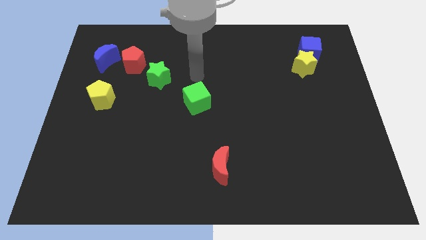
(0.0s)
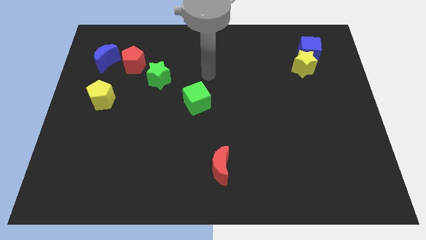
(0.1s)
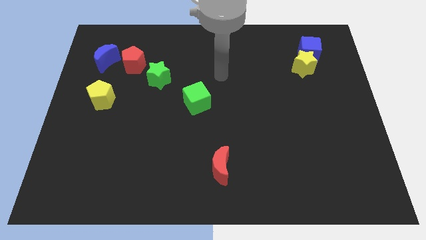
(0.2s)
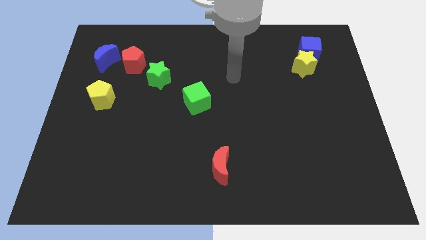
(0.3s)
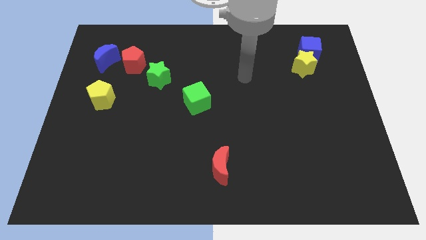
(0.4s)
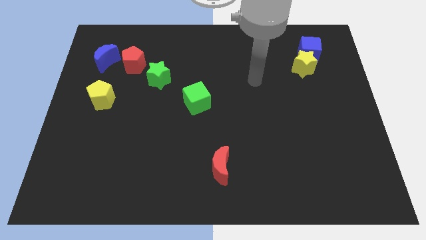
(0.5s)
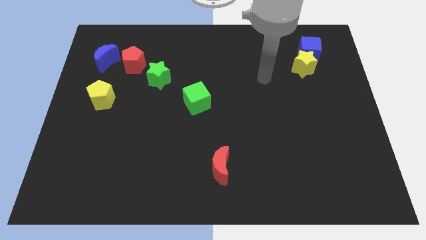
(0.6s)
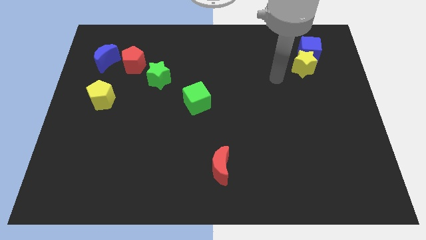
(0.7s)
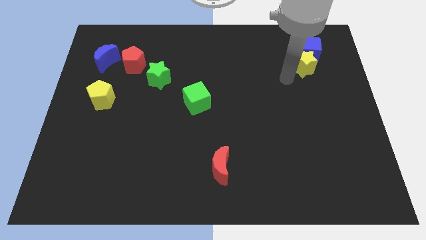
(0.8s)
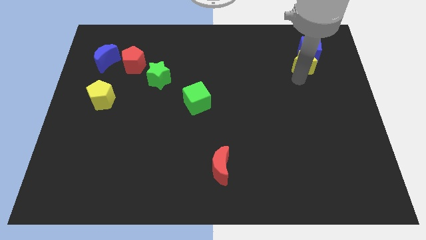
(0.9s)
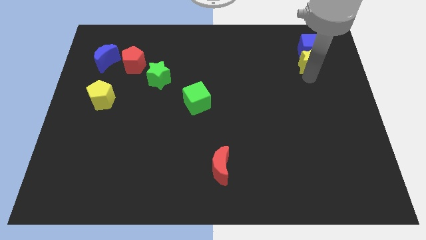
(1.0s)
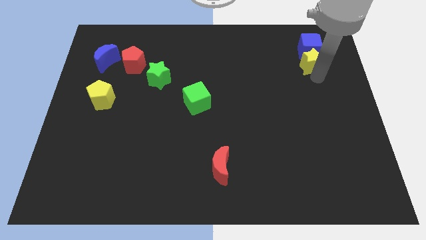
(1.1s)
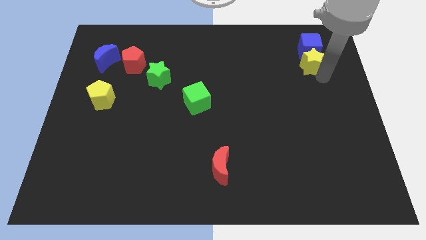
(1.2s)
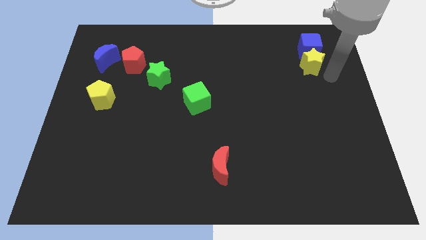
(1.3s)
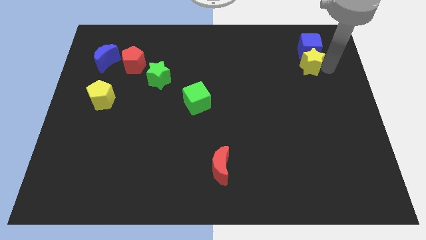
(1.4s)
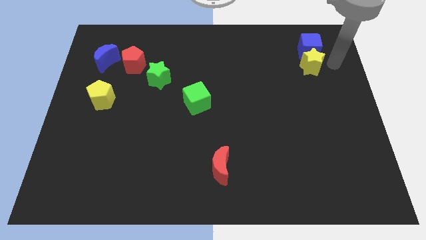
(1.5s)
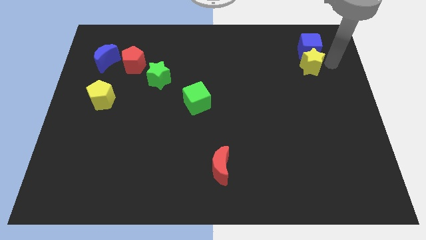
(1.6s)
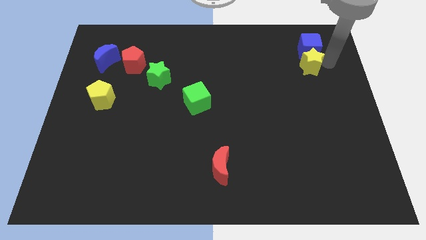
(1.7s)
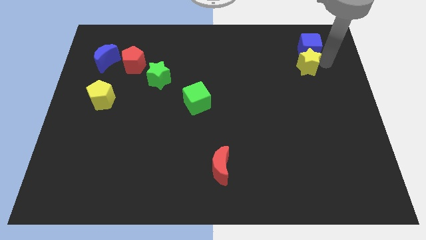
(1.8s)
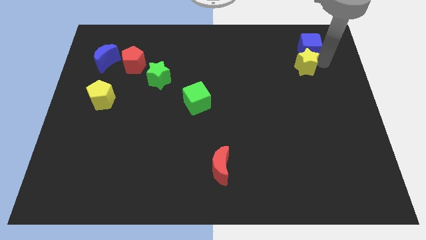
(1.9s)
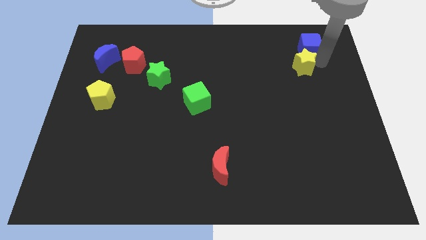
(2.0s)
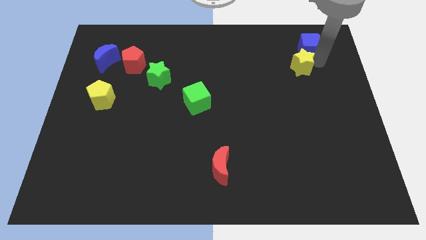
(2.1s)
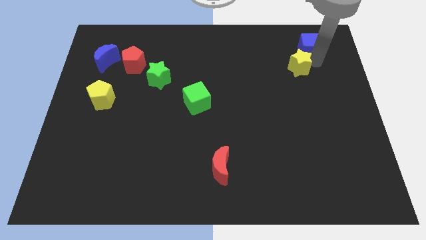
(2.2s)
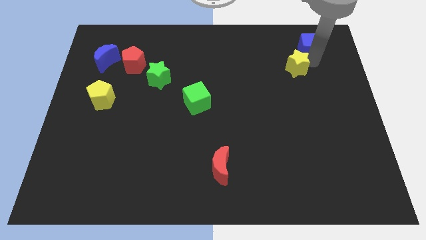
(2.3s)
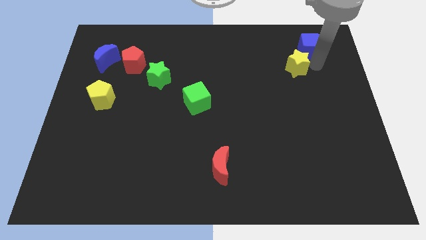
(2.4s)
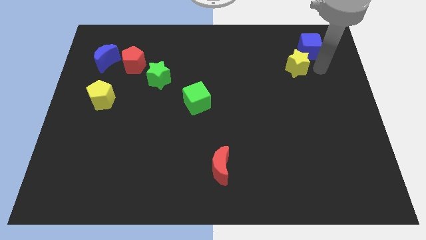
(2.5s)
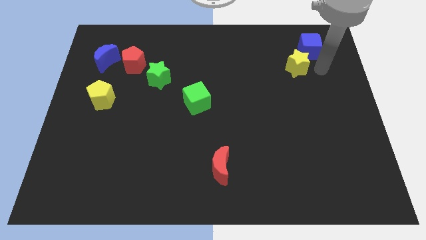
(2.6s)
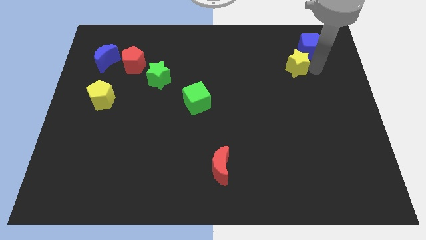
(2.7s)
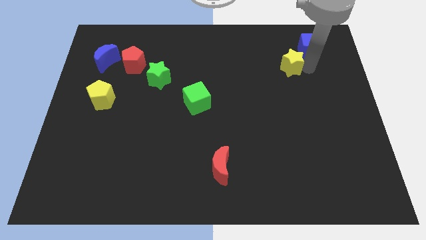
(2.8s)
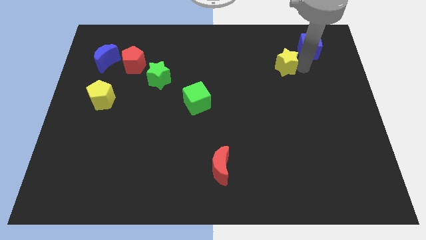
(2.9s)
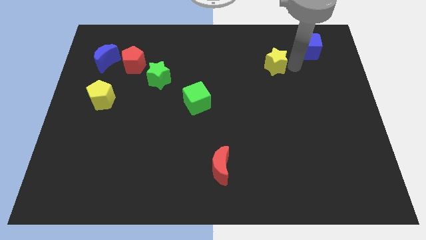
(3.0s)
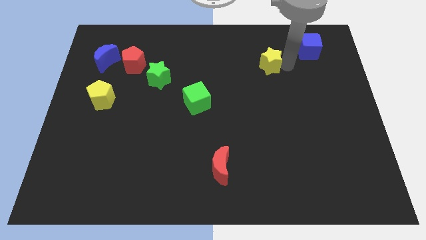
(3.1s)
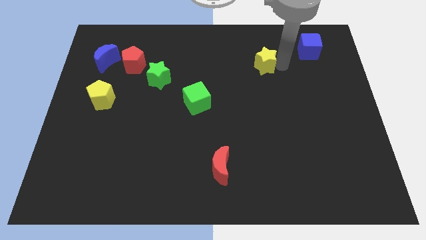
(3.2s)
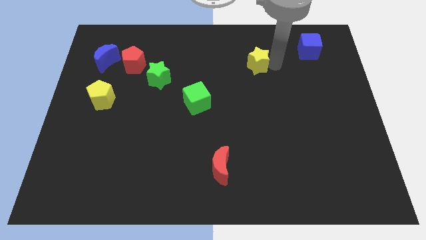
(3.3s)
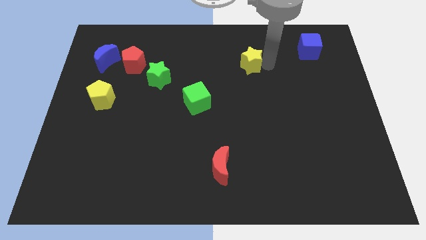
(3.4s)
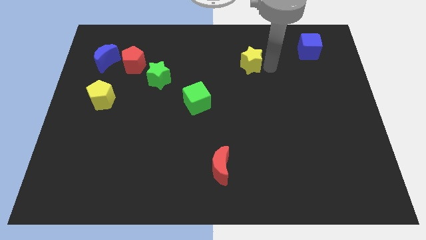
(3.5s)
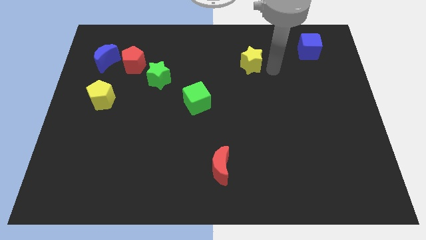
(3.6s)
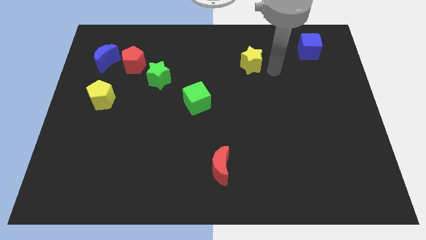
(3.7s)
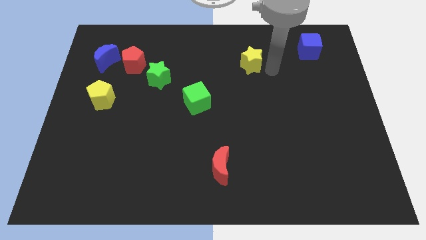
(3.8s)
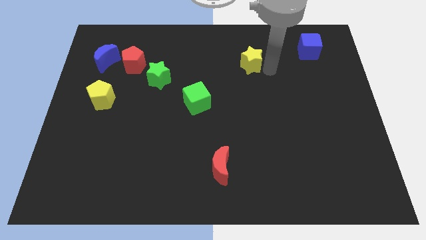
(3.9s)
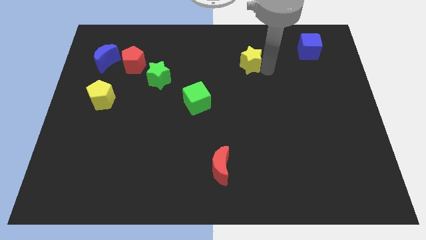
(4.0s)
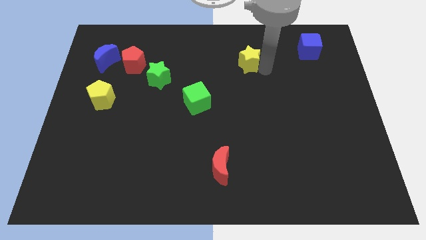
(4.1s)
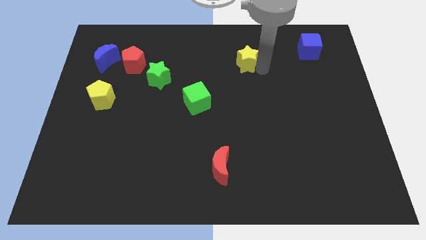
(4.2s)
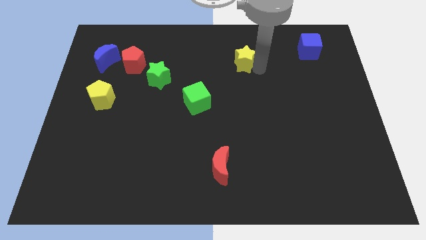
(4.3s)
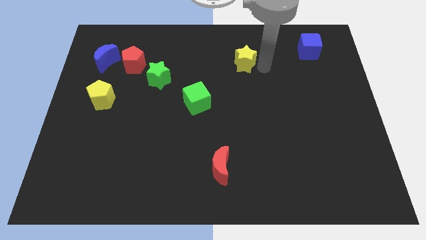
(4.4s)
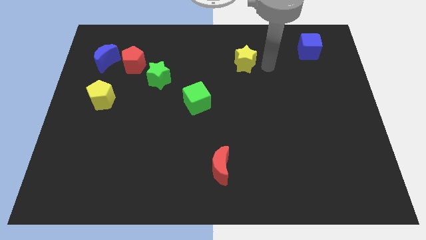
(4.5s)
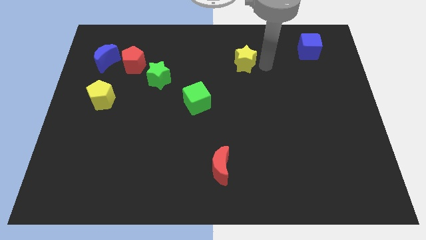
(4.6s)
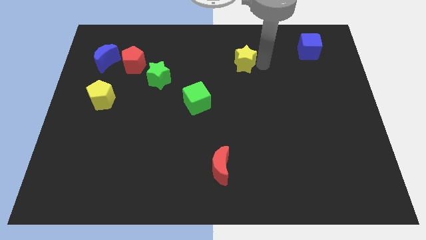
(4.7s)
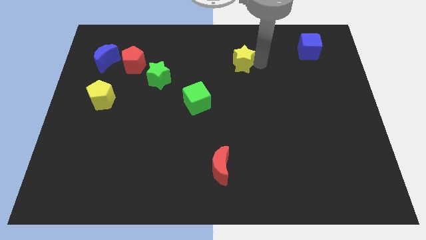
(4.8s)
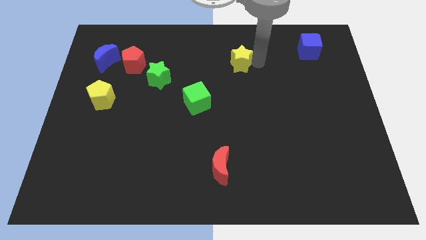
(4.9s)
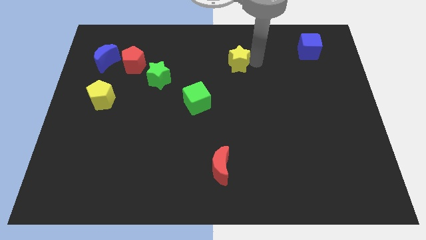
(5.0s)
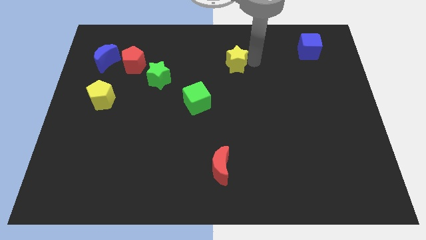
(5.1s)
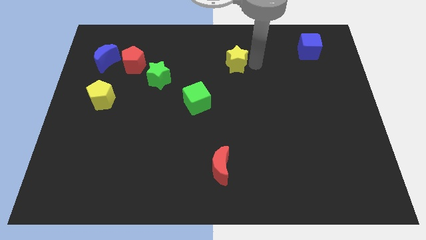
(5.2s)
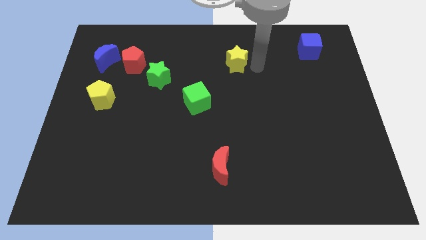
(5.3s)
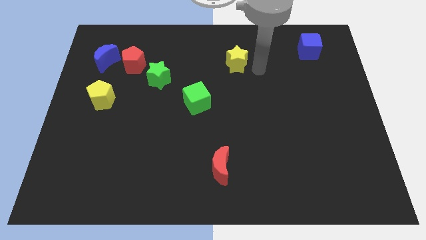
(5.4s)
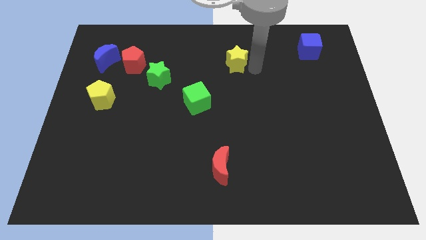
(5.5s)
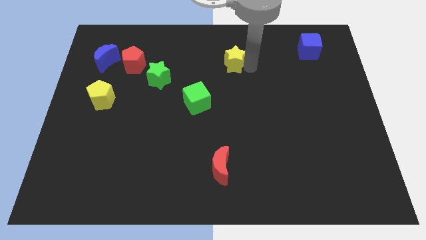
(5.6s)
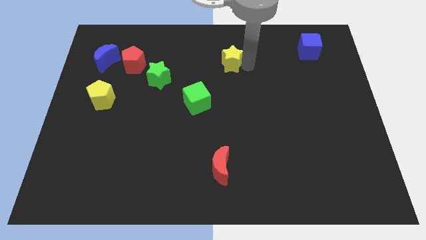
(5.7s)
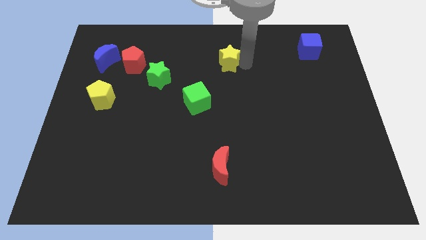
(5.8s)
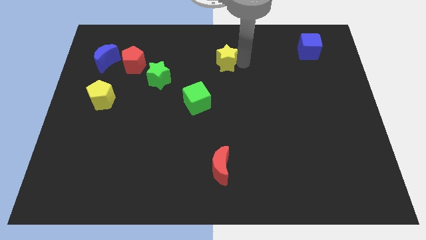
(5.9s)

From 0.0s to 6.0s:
move the yellow star to the left

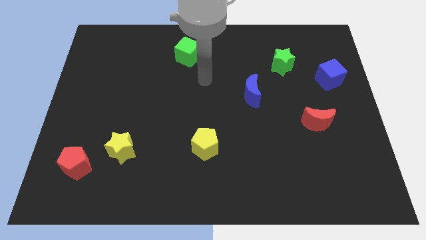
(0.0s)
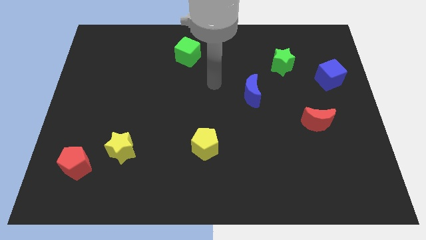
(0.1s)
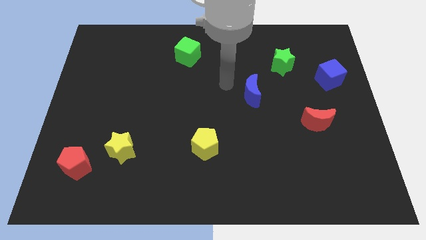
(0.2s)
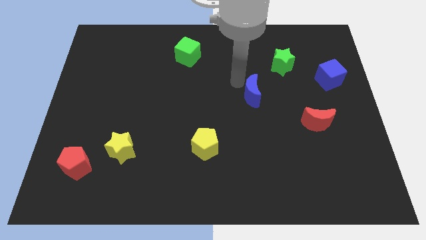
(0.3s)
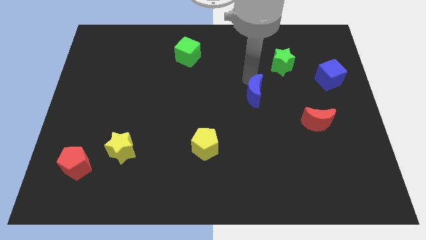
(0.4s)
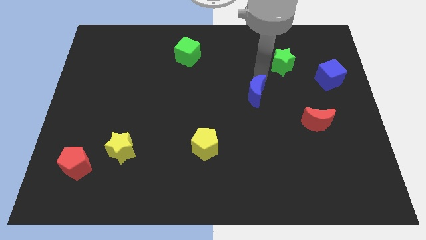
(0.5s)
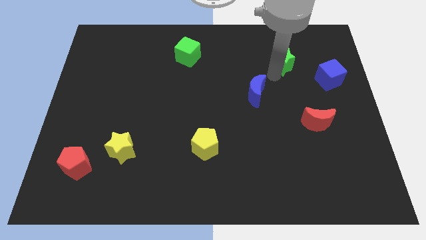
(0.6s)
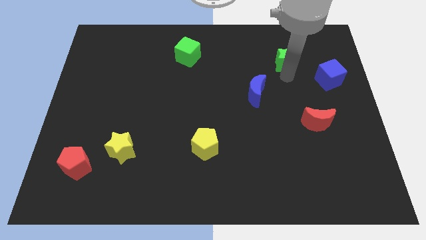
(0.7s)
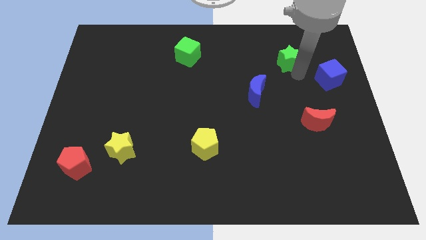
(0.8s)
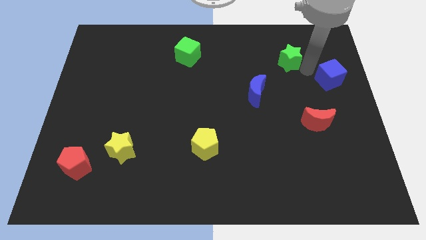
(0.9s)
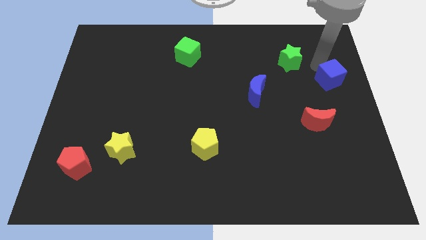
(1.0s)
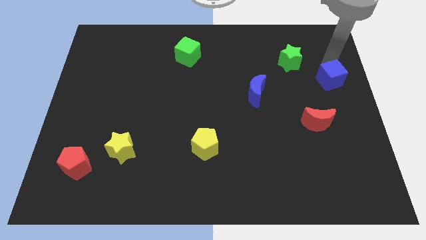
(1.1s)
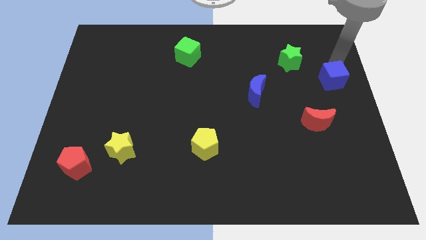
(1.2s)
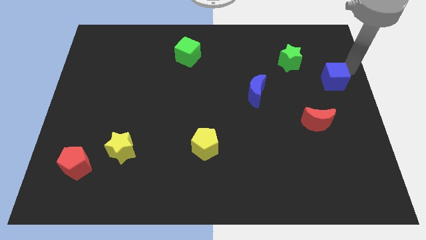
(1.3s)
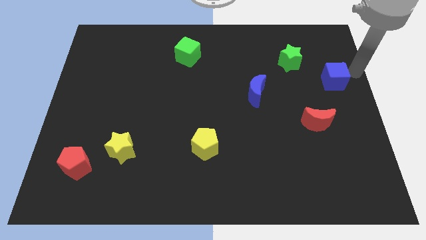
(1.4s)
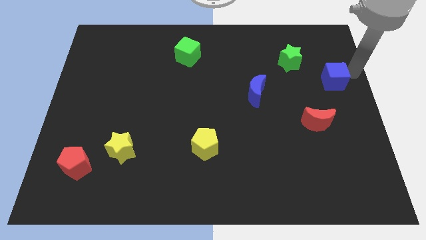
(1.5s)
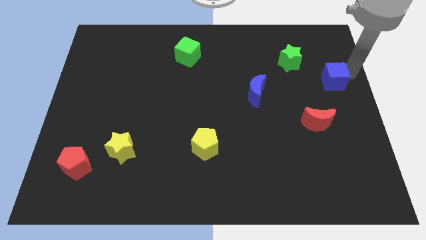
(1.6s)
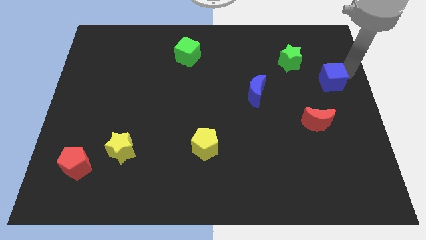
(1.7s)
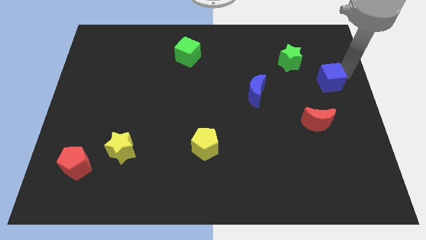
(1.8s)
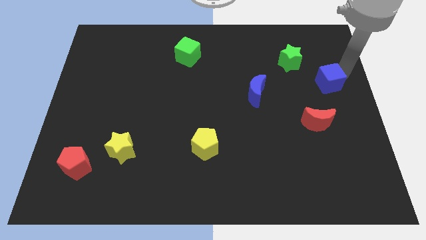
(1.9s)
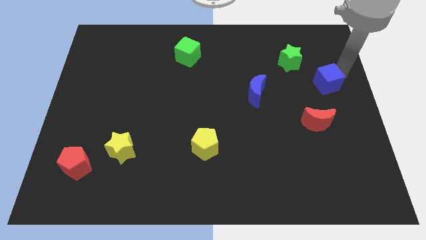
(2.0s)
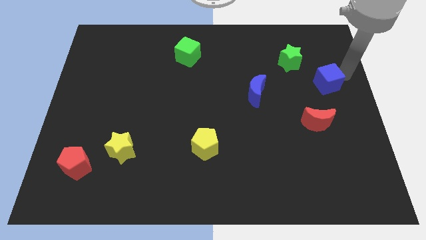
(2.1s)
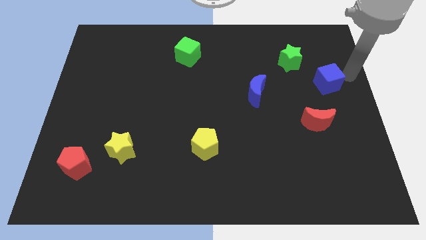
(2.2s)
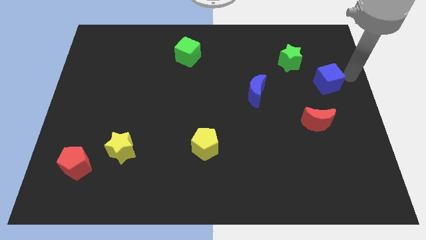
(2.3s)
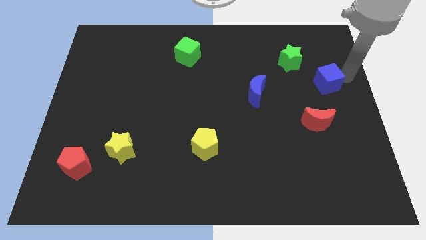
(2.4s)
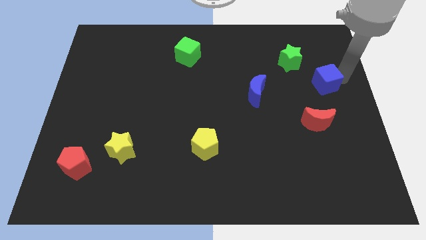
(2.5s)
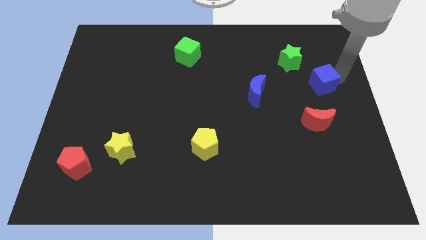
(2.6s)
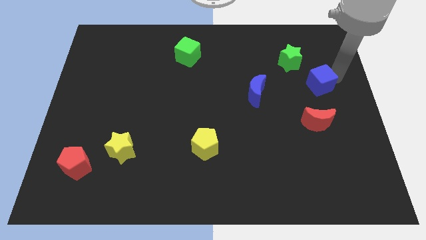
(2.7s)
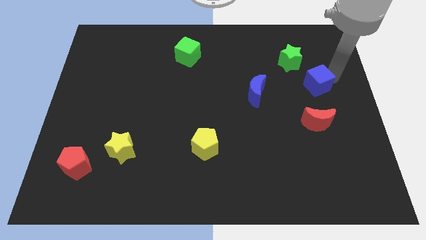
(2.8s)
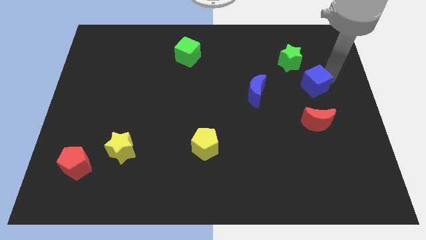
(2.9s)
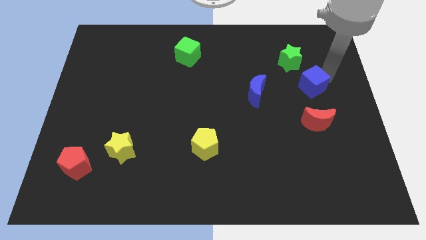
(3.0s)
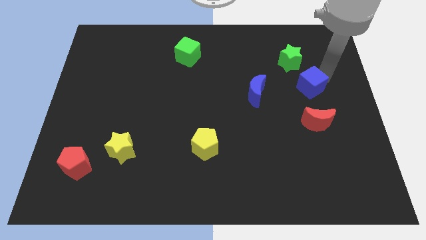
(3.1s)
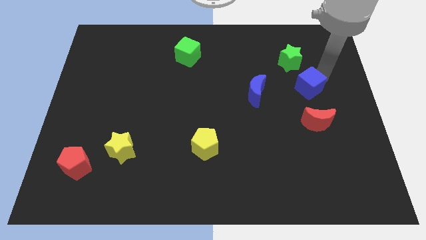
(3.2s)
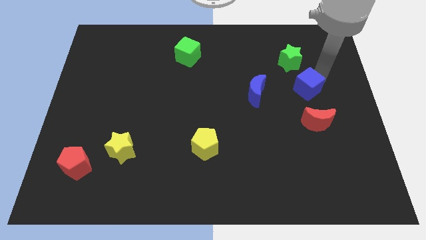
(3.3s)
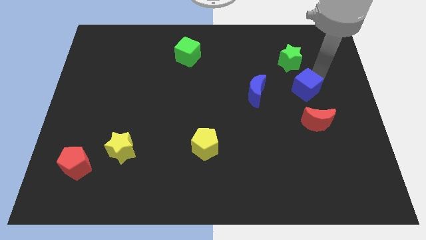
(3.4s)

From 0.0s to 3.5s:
push the blue cube downwards and left diagonally a little
